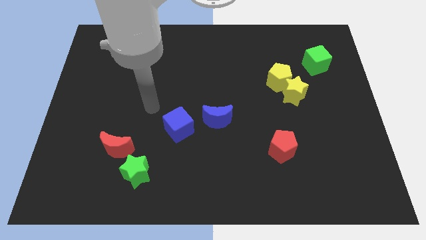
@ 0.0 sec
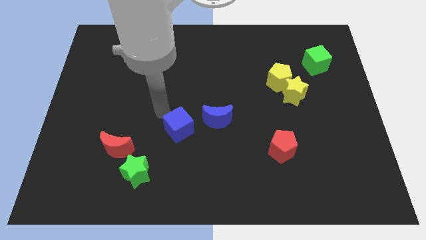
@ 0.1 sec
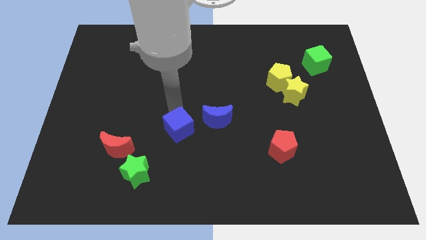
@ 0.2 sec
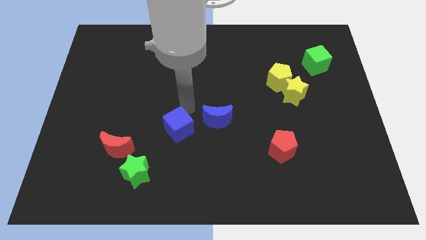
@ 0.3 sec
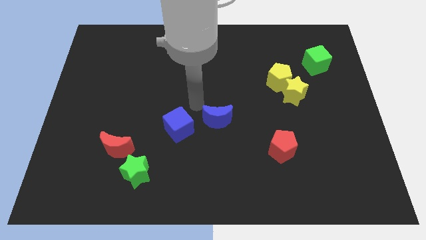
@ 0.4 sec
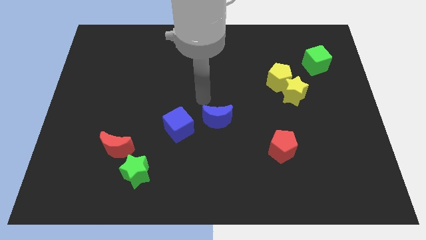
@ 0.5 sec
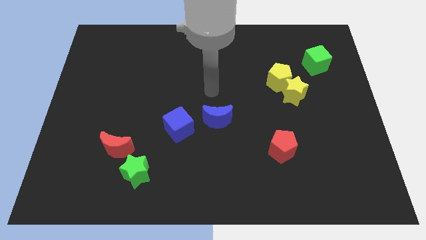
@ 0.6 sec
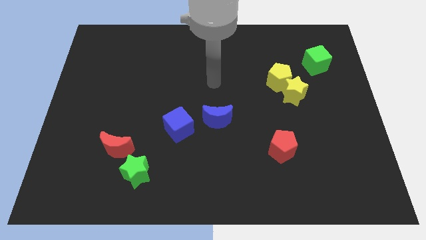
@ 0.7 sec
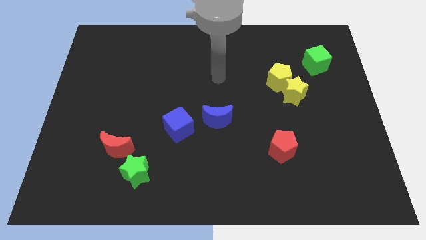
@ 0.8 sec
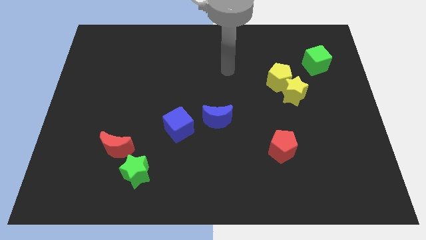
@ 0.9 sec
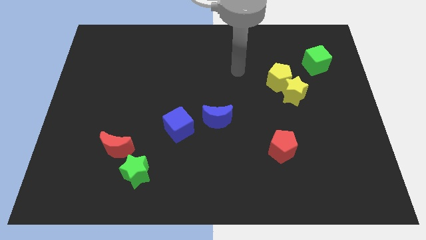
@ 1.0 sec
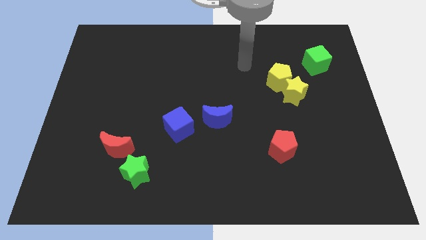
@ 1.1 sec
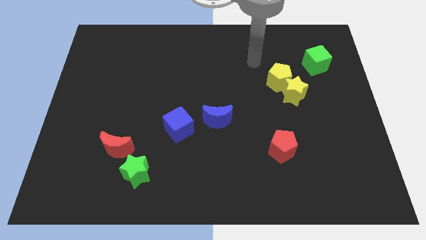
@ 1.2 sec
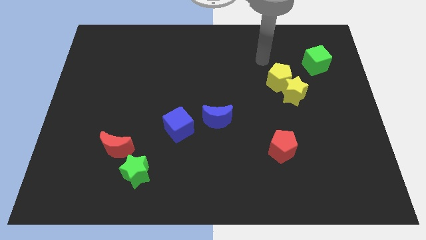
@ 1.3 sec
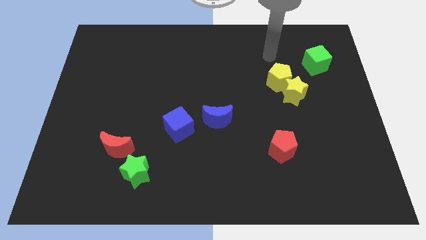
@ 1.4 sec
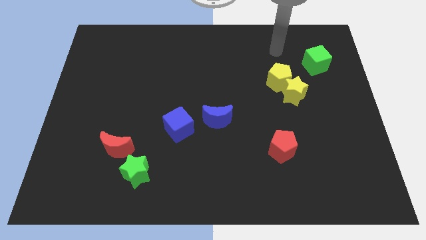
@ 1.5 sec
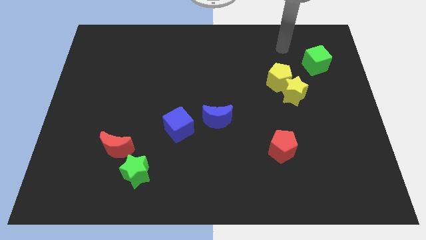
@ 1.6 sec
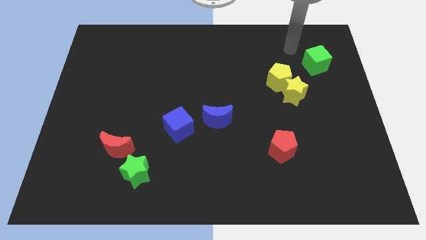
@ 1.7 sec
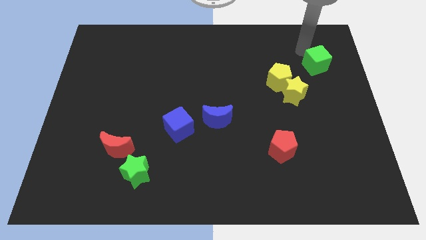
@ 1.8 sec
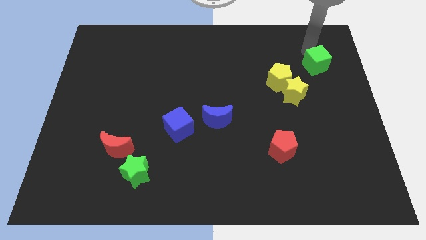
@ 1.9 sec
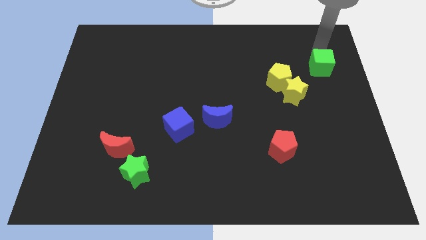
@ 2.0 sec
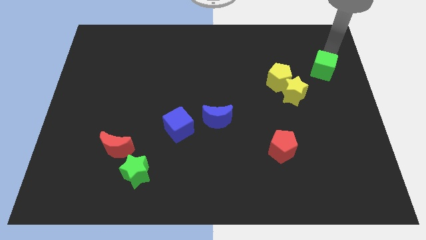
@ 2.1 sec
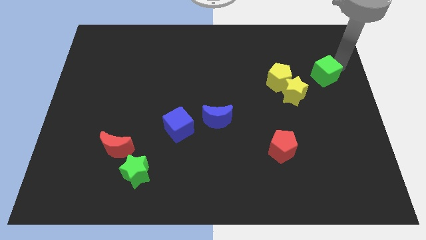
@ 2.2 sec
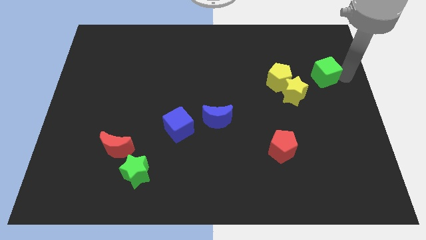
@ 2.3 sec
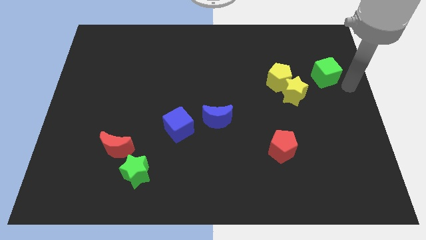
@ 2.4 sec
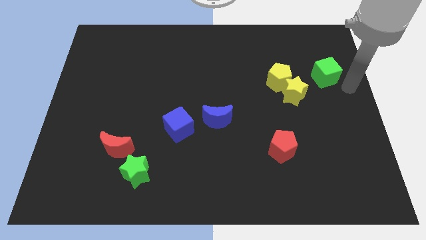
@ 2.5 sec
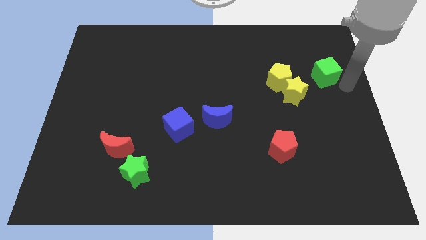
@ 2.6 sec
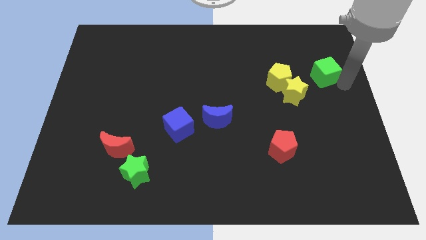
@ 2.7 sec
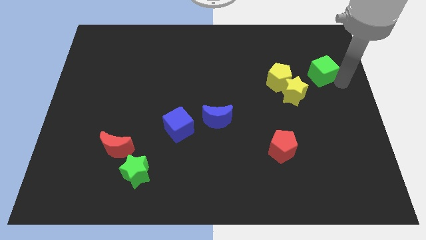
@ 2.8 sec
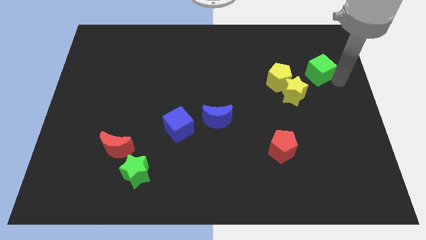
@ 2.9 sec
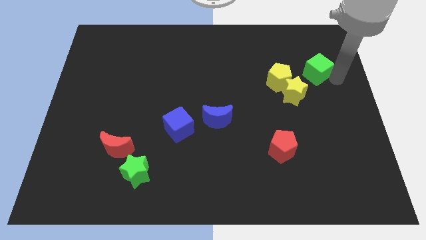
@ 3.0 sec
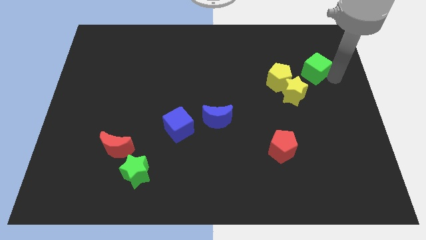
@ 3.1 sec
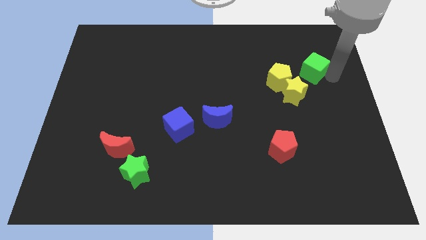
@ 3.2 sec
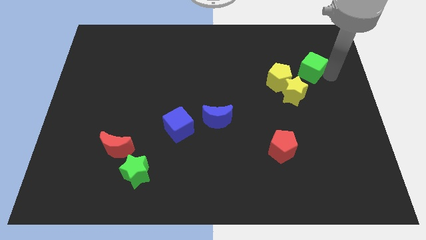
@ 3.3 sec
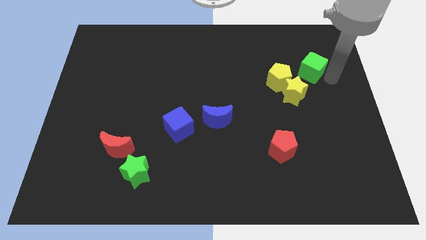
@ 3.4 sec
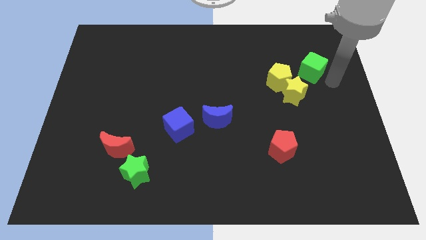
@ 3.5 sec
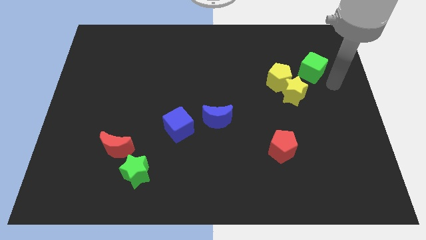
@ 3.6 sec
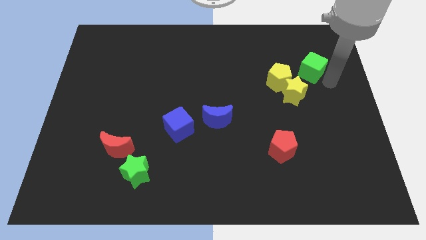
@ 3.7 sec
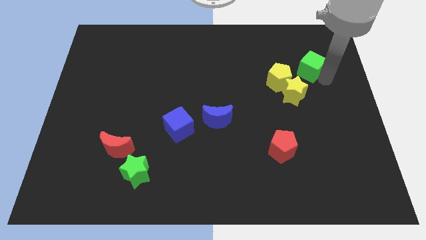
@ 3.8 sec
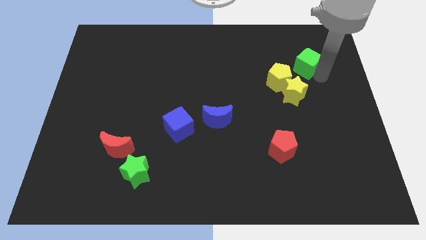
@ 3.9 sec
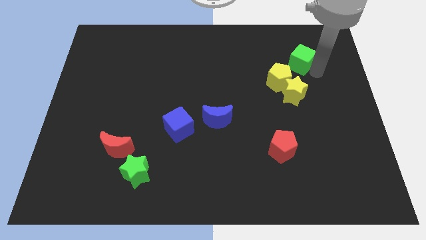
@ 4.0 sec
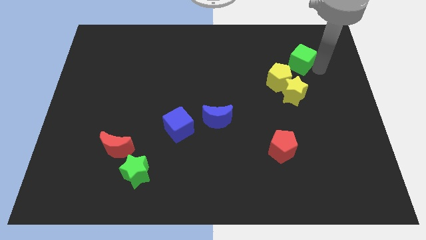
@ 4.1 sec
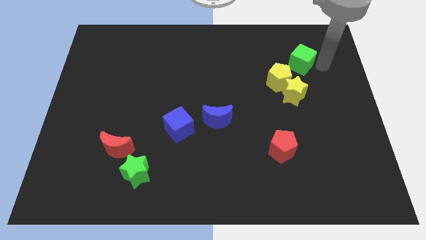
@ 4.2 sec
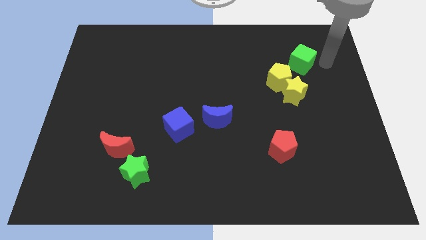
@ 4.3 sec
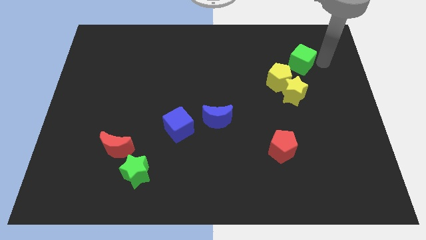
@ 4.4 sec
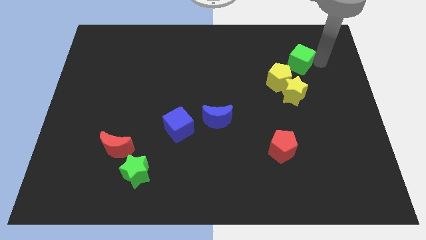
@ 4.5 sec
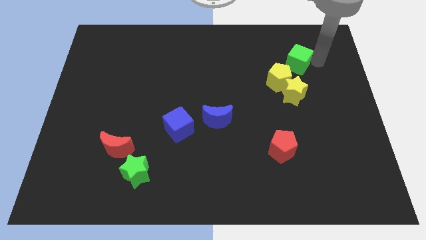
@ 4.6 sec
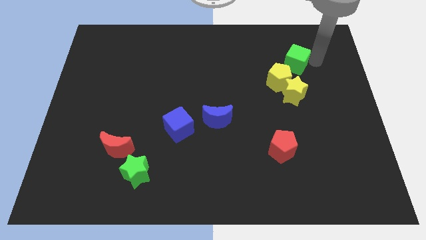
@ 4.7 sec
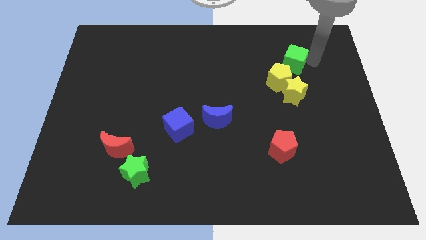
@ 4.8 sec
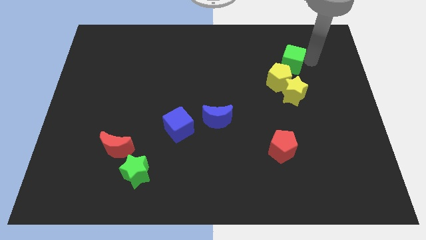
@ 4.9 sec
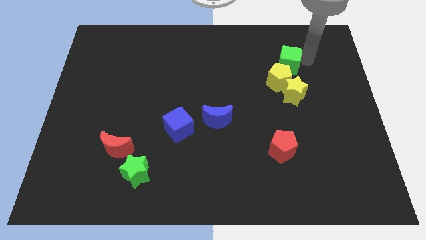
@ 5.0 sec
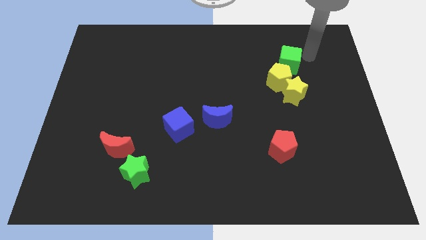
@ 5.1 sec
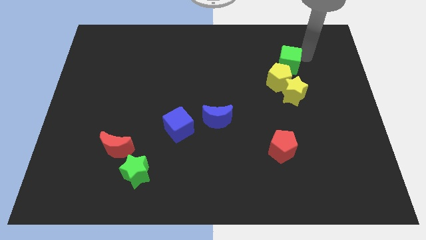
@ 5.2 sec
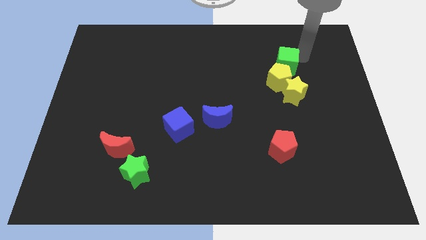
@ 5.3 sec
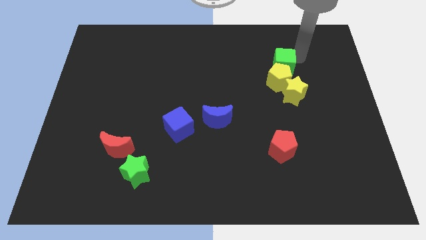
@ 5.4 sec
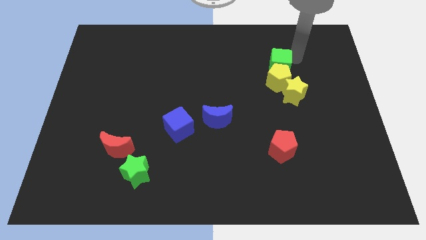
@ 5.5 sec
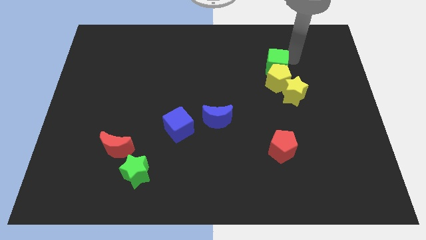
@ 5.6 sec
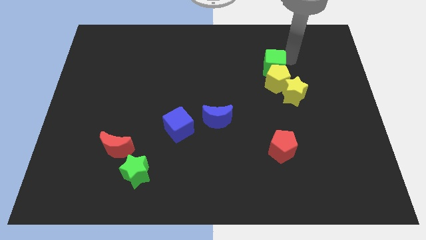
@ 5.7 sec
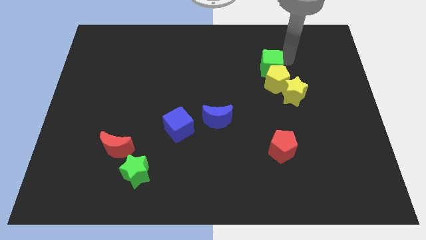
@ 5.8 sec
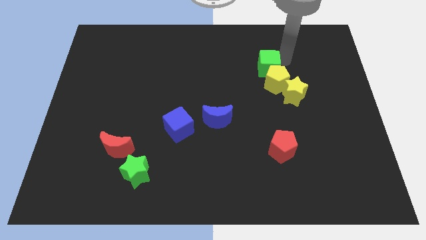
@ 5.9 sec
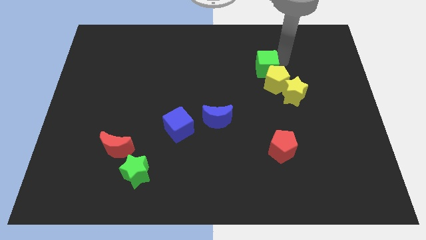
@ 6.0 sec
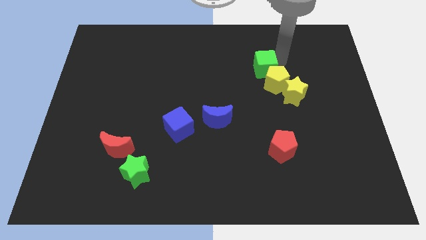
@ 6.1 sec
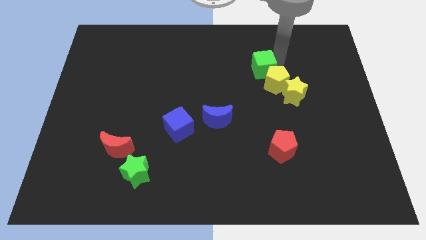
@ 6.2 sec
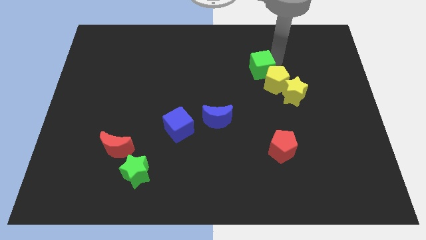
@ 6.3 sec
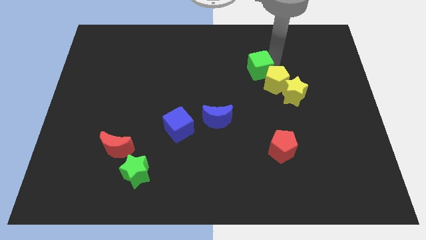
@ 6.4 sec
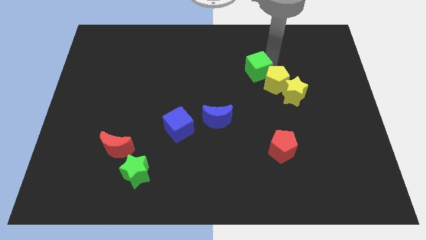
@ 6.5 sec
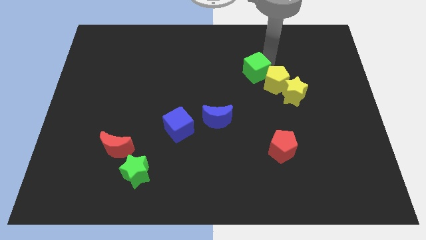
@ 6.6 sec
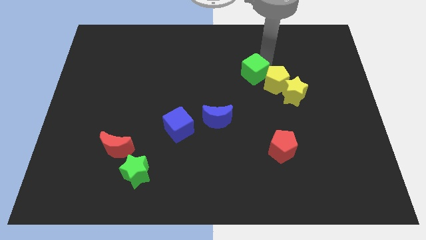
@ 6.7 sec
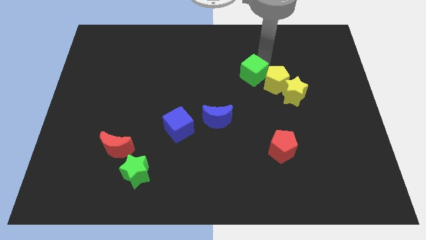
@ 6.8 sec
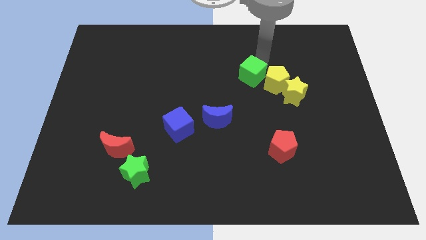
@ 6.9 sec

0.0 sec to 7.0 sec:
put the green cube to the center
